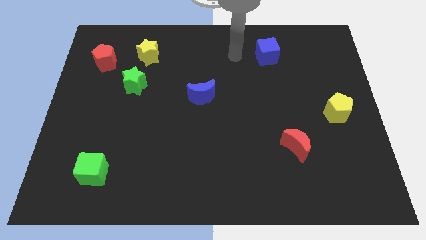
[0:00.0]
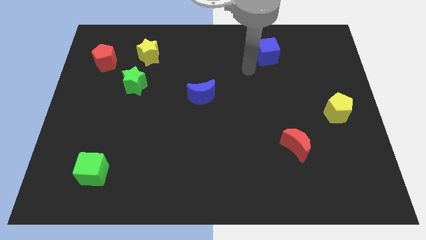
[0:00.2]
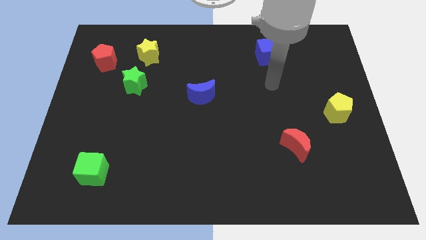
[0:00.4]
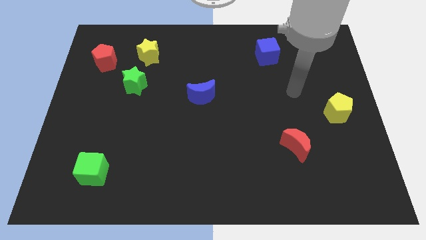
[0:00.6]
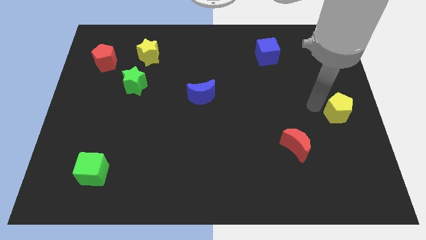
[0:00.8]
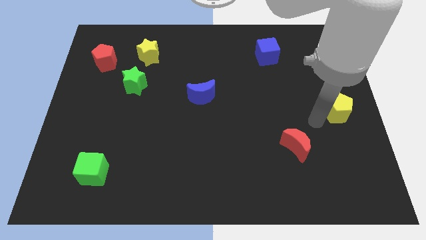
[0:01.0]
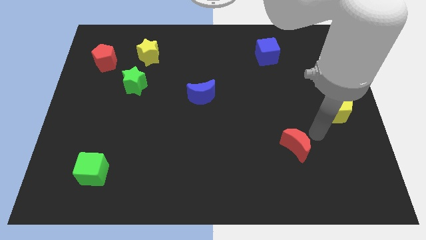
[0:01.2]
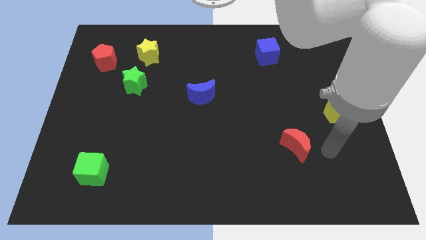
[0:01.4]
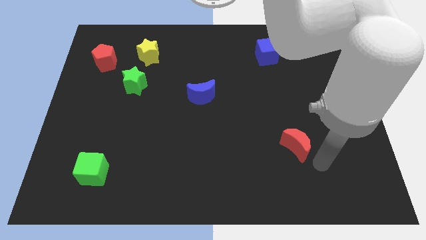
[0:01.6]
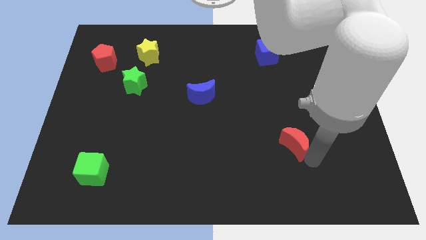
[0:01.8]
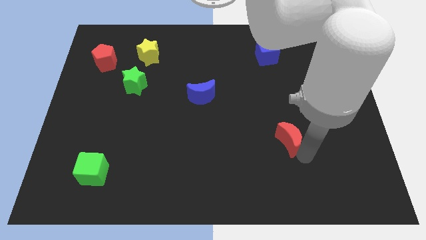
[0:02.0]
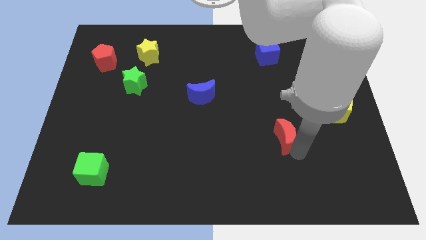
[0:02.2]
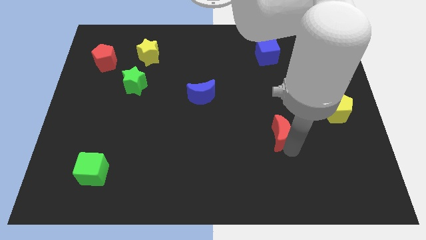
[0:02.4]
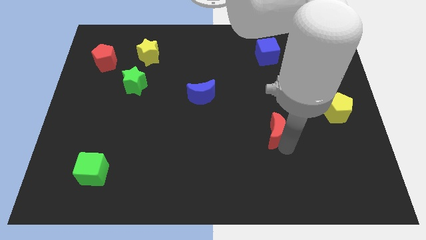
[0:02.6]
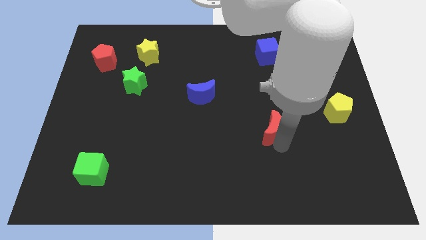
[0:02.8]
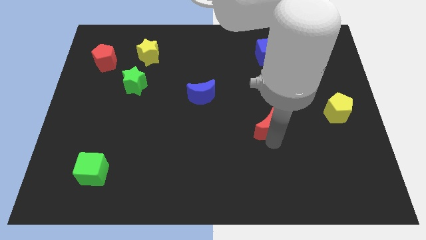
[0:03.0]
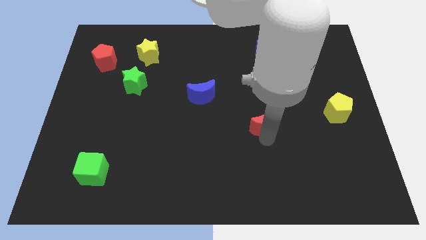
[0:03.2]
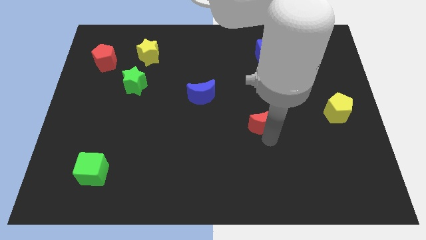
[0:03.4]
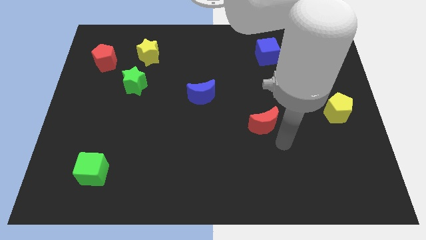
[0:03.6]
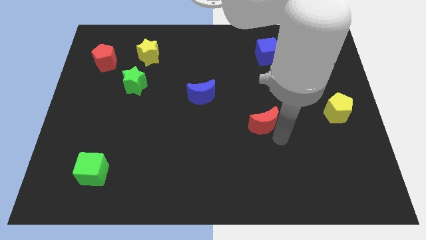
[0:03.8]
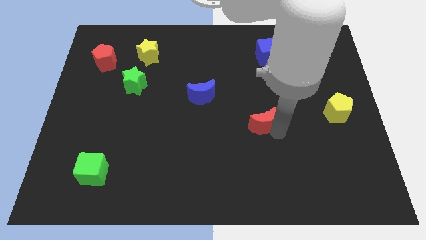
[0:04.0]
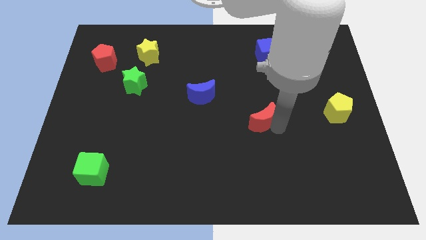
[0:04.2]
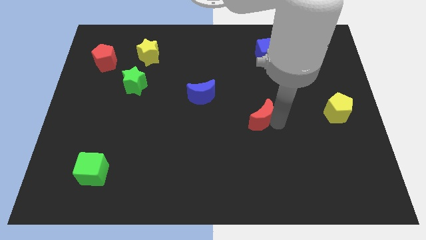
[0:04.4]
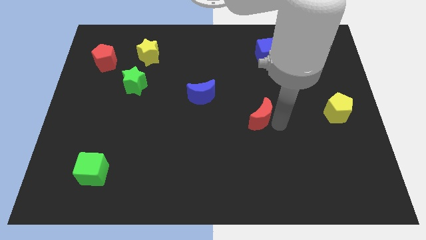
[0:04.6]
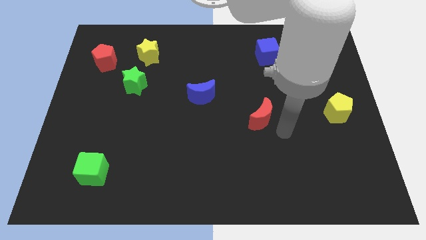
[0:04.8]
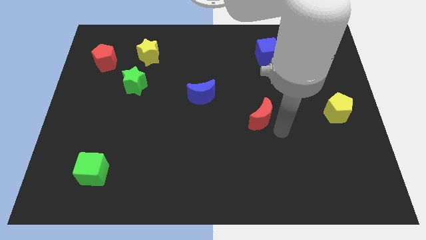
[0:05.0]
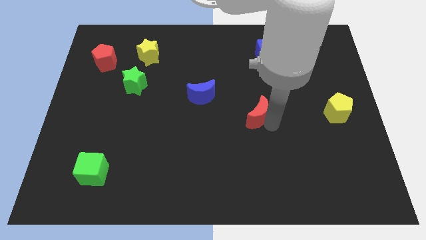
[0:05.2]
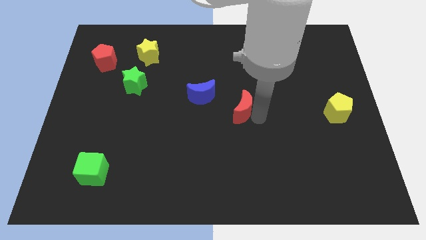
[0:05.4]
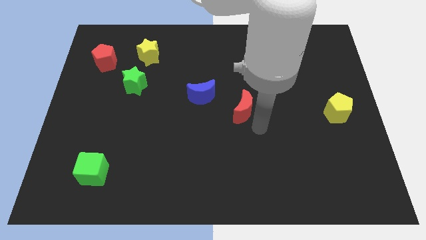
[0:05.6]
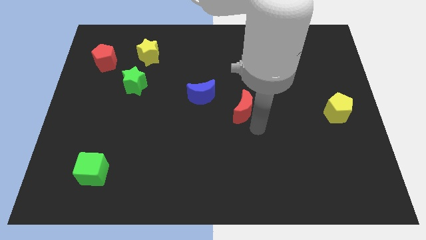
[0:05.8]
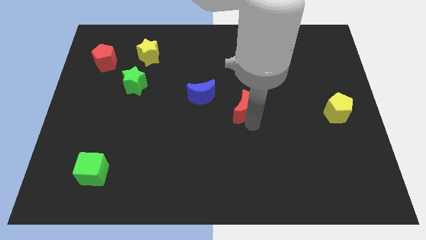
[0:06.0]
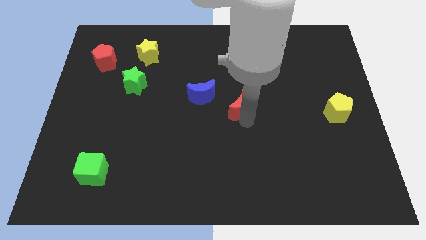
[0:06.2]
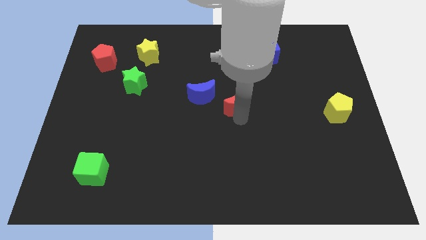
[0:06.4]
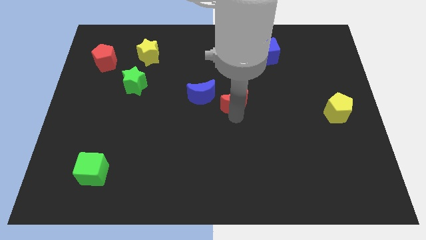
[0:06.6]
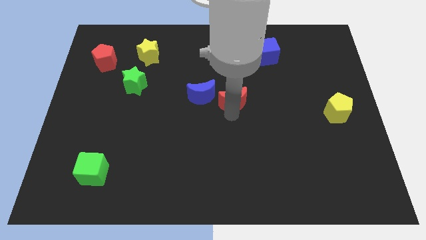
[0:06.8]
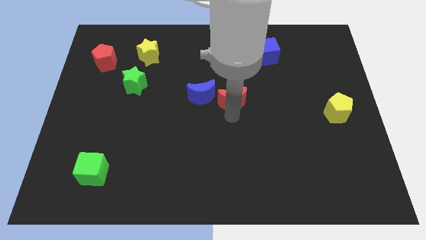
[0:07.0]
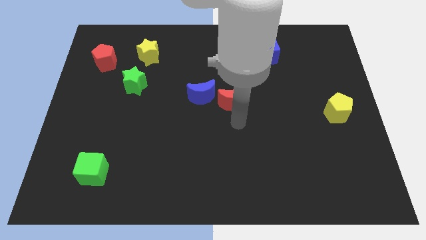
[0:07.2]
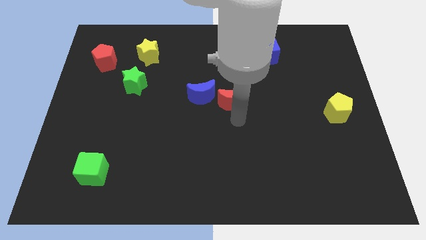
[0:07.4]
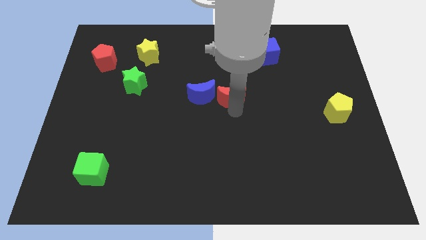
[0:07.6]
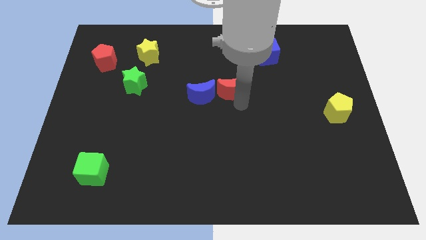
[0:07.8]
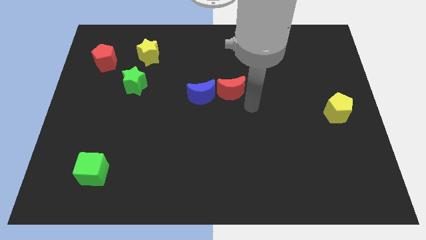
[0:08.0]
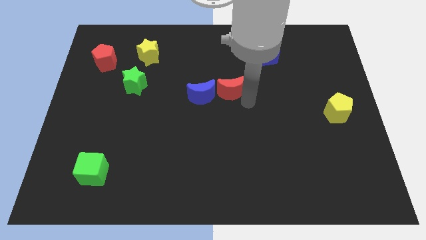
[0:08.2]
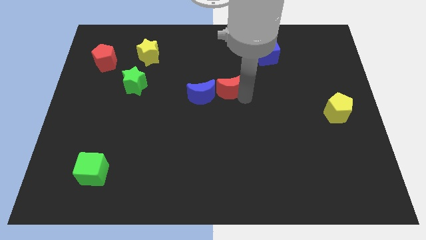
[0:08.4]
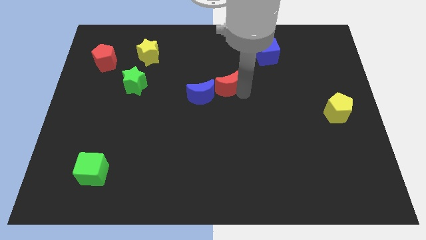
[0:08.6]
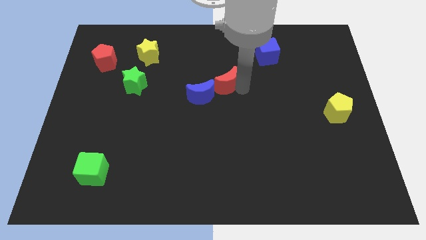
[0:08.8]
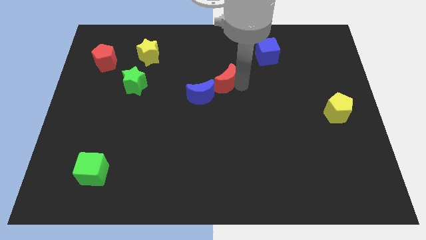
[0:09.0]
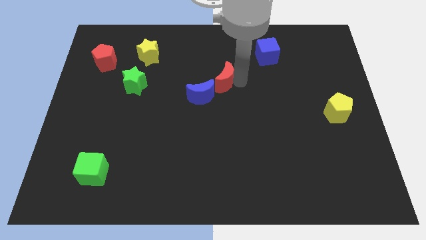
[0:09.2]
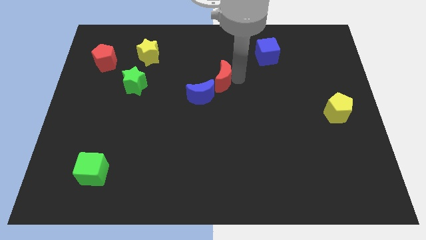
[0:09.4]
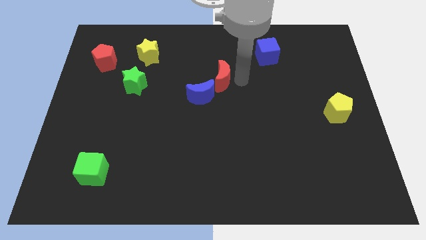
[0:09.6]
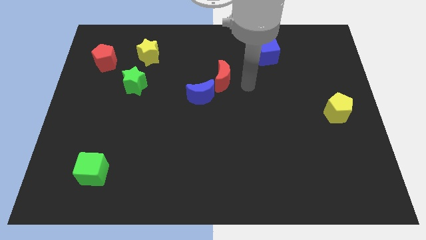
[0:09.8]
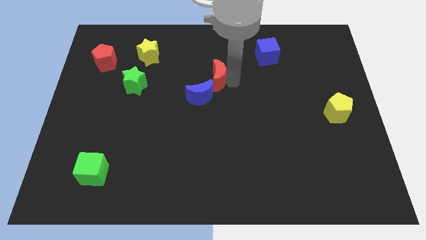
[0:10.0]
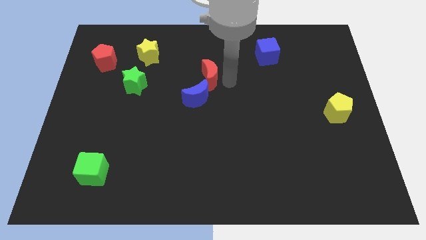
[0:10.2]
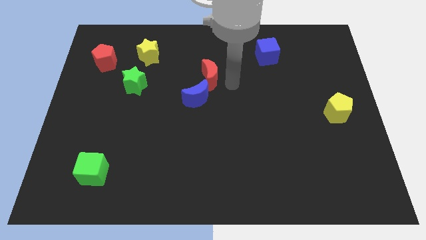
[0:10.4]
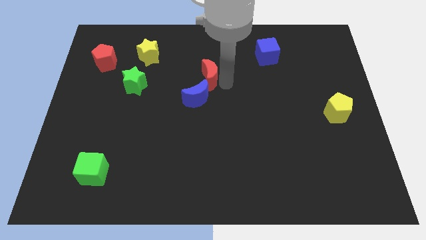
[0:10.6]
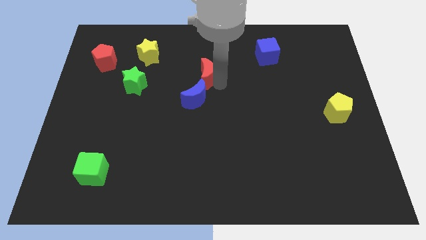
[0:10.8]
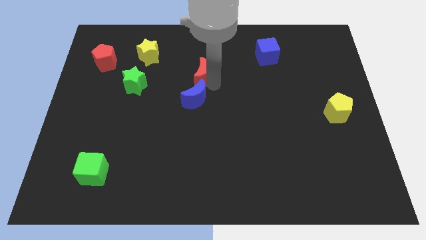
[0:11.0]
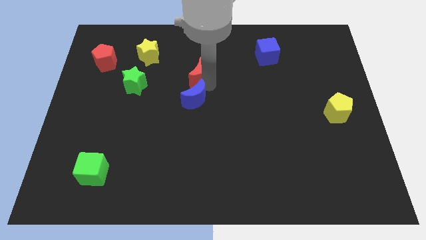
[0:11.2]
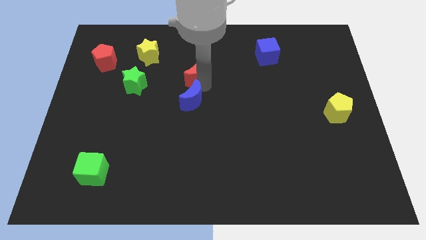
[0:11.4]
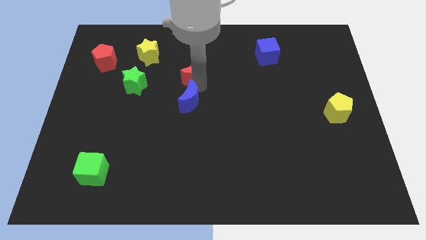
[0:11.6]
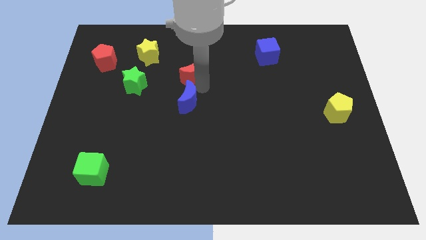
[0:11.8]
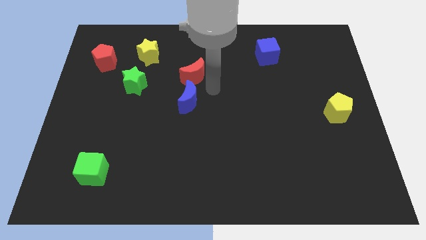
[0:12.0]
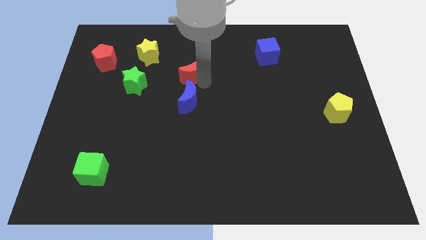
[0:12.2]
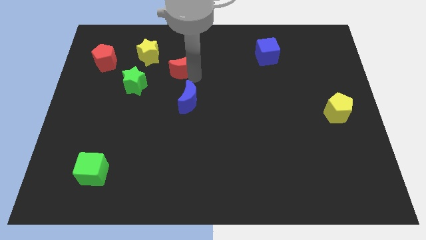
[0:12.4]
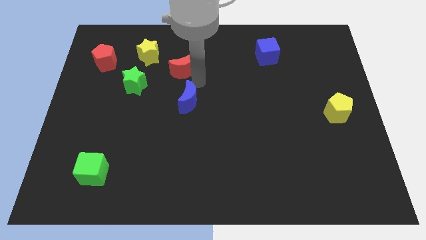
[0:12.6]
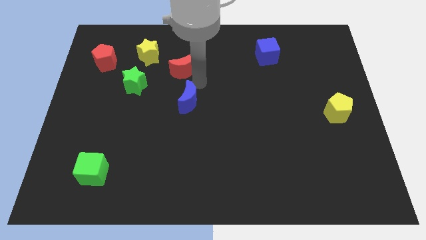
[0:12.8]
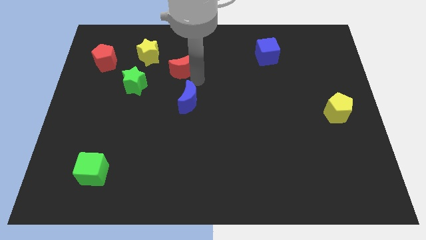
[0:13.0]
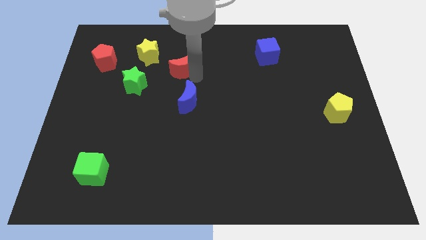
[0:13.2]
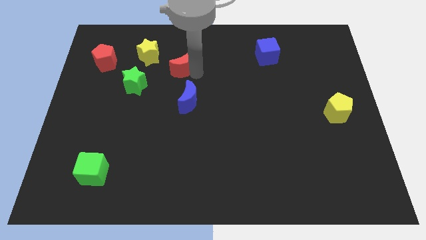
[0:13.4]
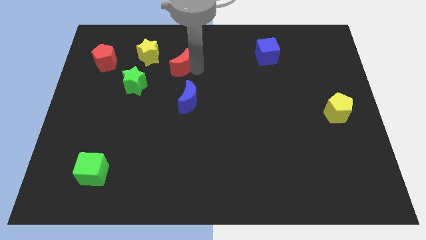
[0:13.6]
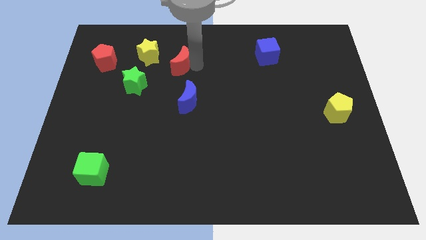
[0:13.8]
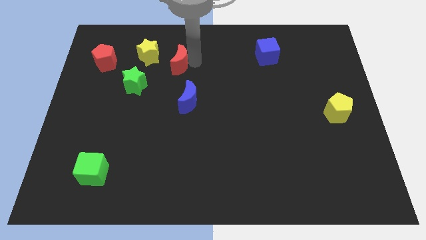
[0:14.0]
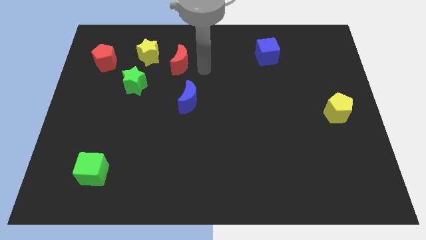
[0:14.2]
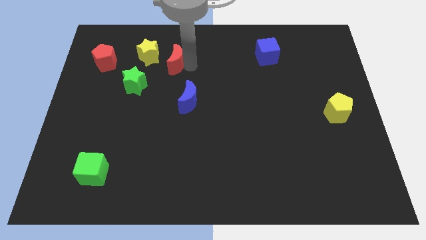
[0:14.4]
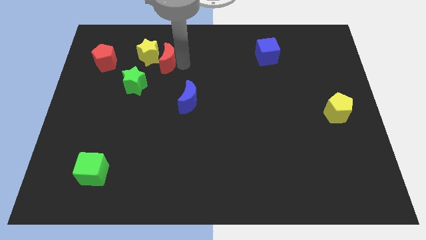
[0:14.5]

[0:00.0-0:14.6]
put the red moon next to the yellow star
